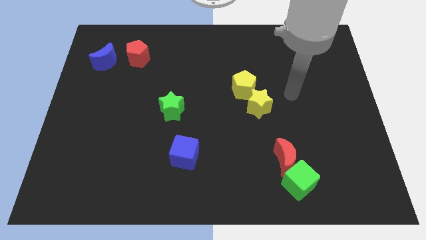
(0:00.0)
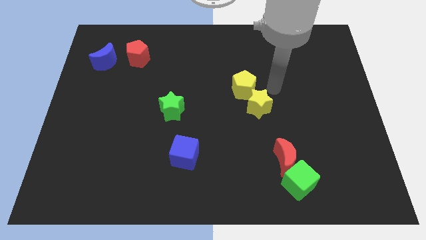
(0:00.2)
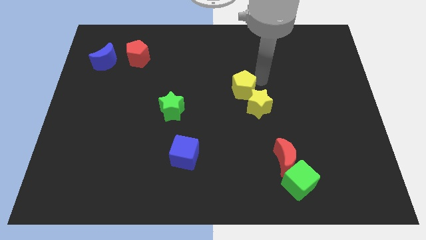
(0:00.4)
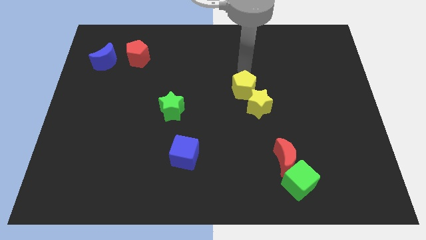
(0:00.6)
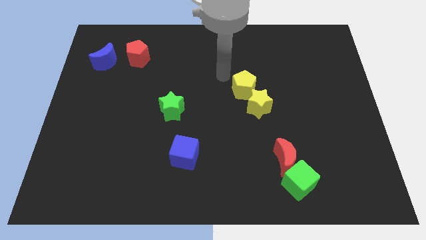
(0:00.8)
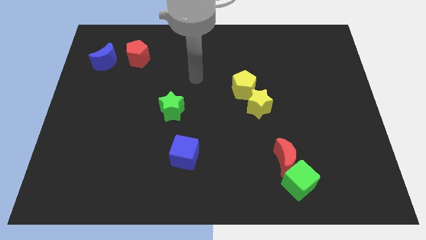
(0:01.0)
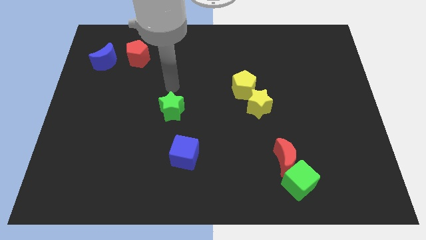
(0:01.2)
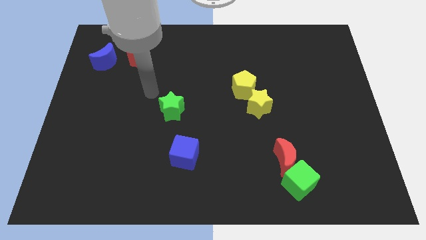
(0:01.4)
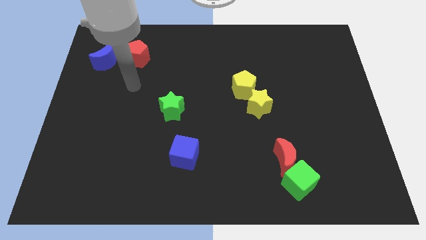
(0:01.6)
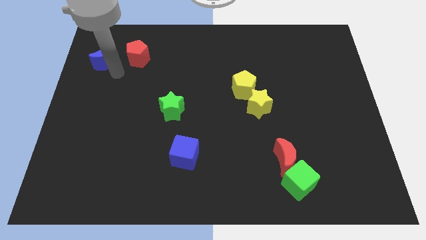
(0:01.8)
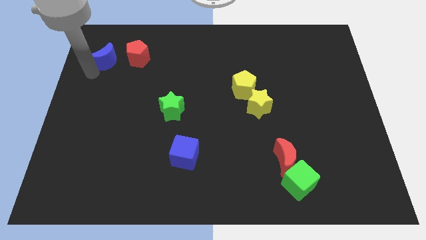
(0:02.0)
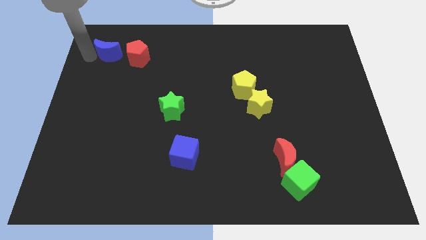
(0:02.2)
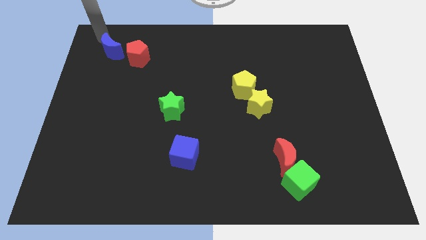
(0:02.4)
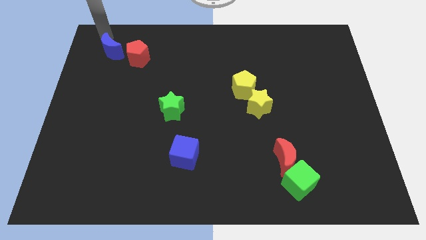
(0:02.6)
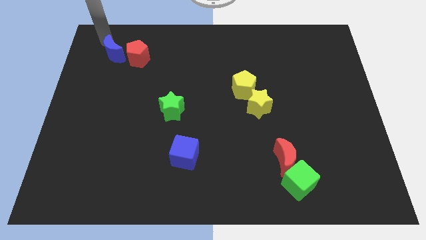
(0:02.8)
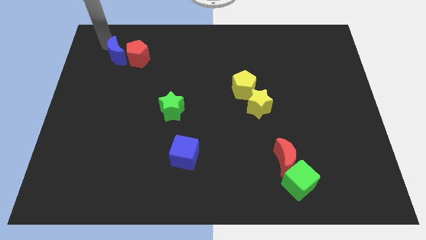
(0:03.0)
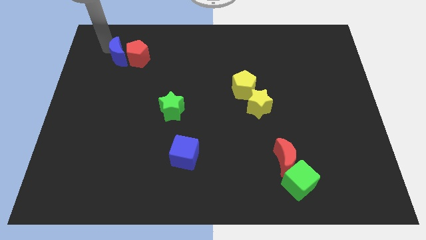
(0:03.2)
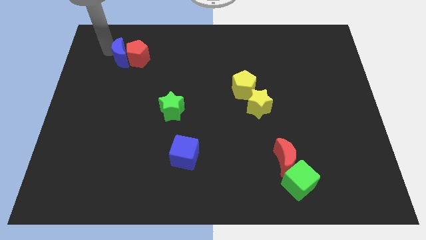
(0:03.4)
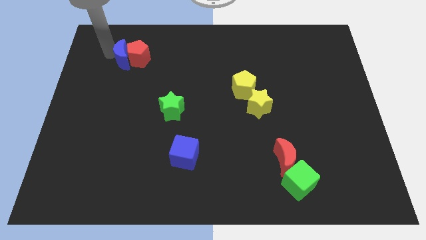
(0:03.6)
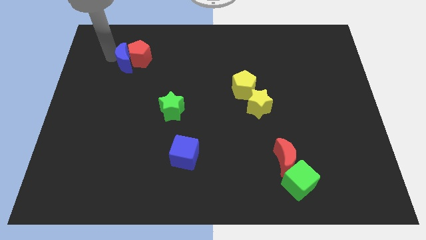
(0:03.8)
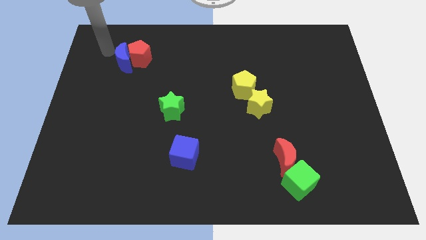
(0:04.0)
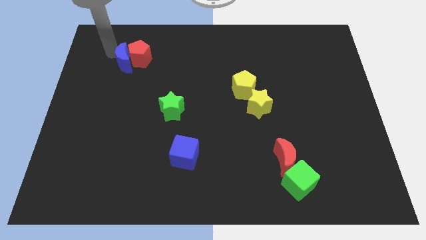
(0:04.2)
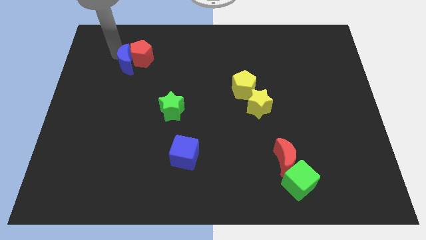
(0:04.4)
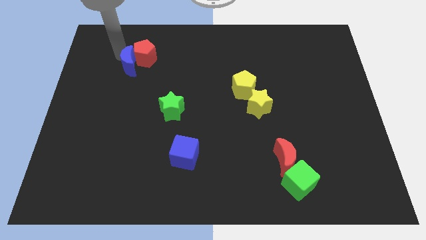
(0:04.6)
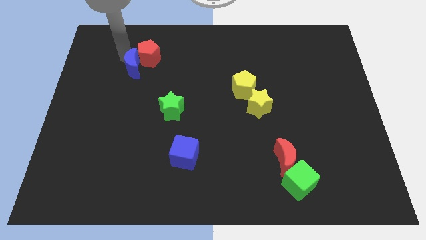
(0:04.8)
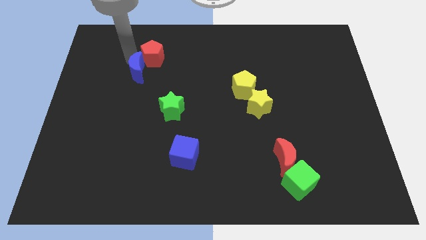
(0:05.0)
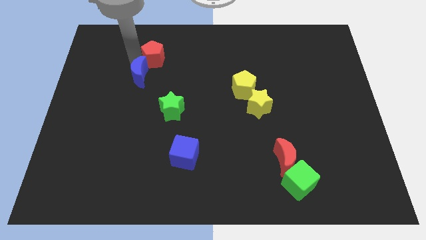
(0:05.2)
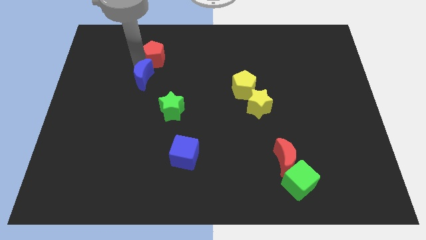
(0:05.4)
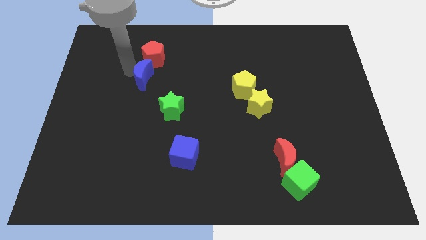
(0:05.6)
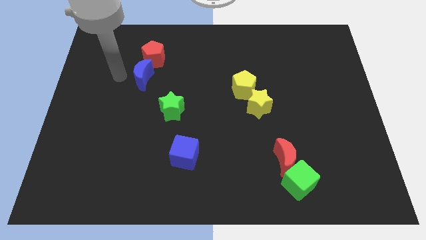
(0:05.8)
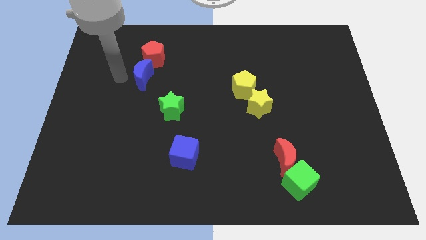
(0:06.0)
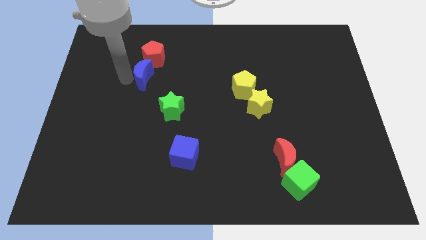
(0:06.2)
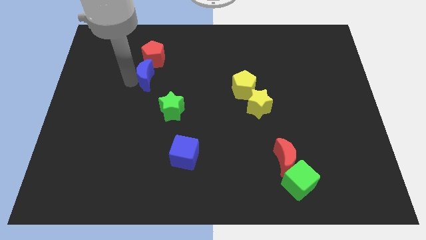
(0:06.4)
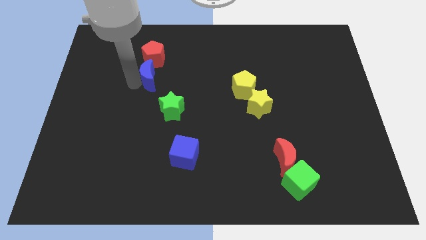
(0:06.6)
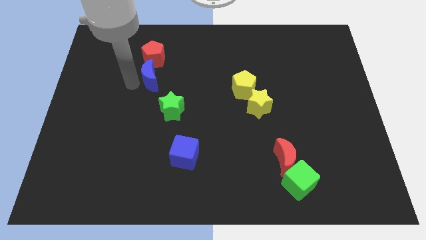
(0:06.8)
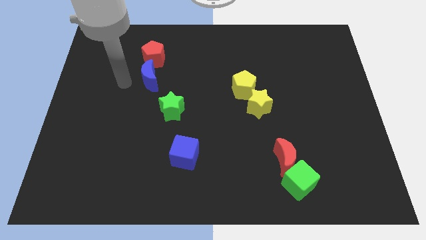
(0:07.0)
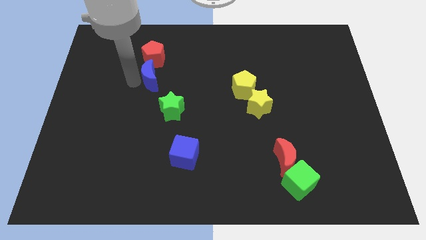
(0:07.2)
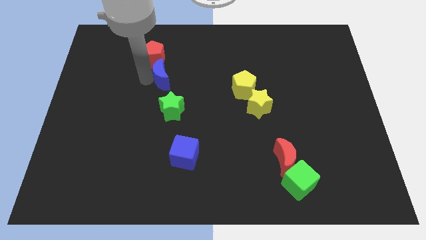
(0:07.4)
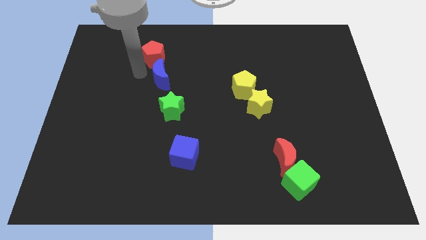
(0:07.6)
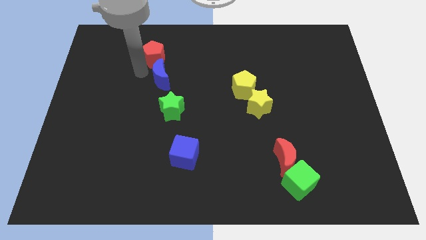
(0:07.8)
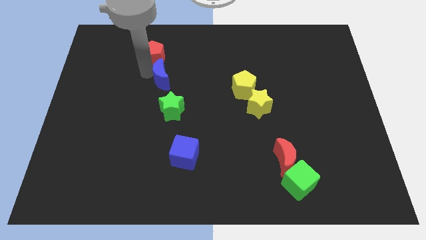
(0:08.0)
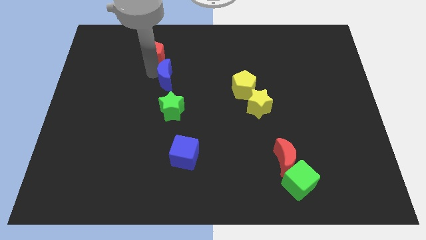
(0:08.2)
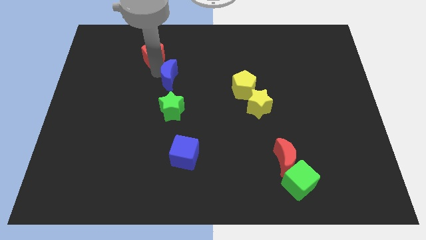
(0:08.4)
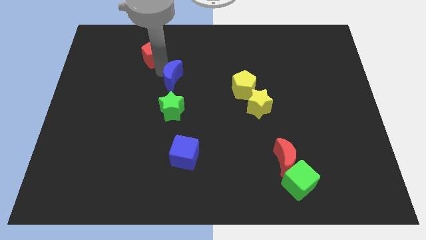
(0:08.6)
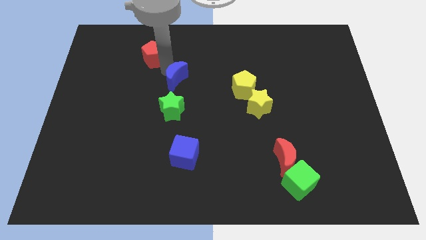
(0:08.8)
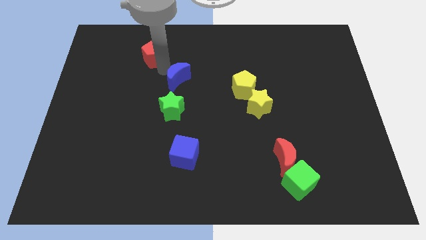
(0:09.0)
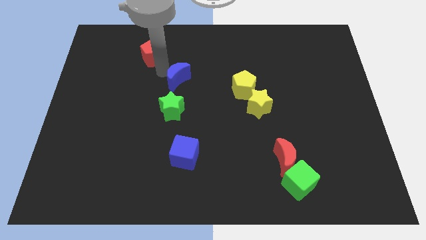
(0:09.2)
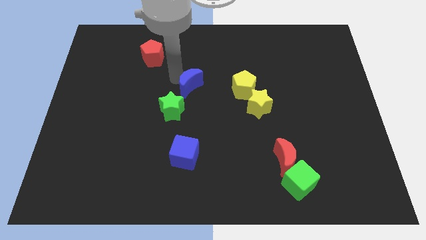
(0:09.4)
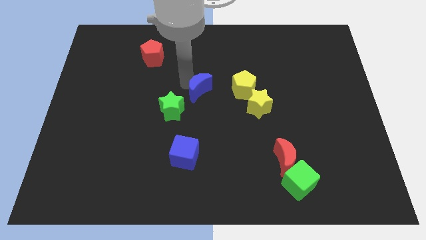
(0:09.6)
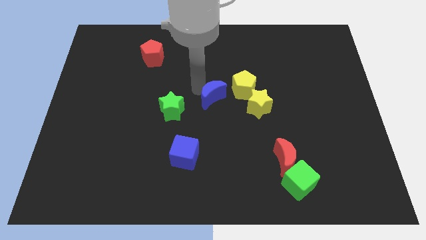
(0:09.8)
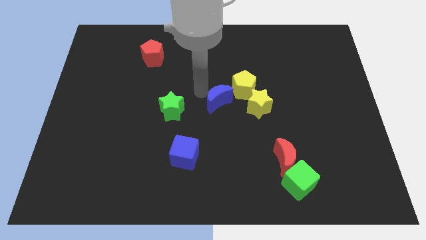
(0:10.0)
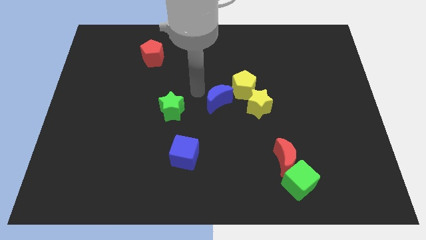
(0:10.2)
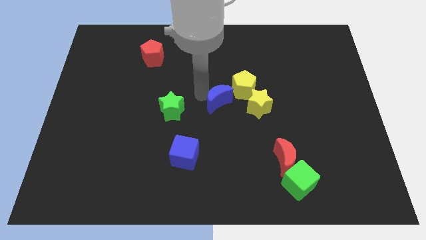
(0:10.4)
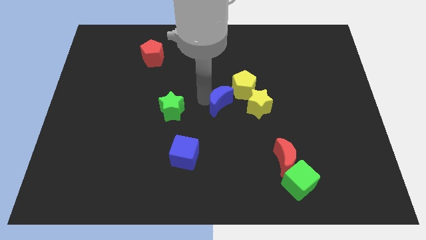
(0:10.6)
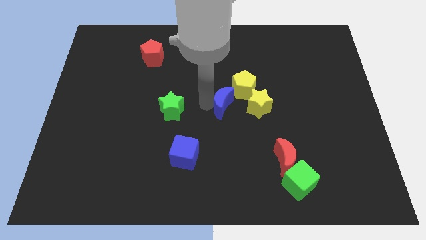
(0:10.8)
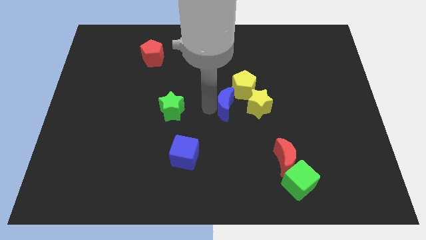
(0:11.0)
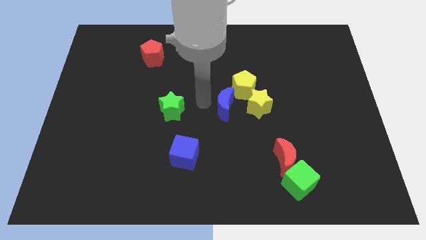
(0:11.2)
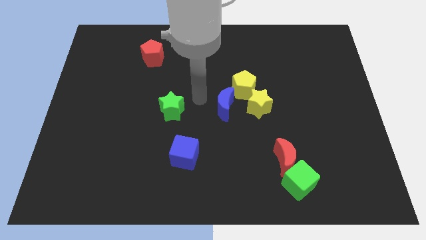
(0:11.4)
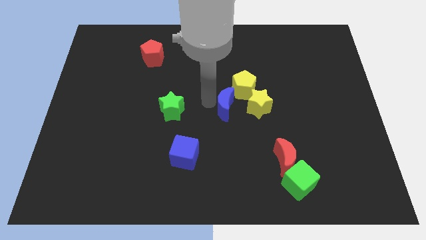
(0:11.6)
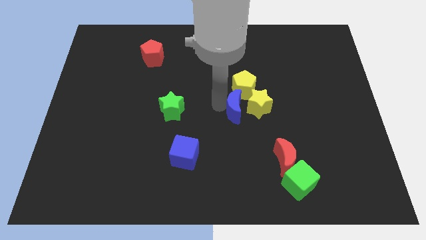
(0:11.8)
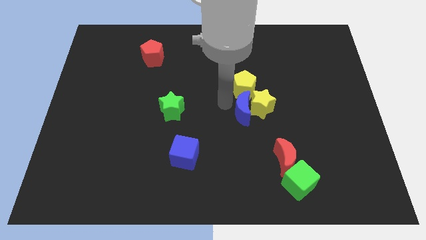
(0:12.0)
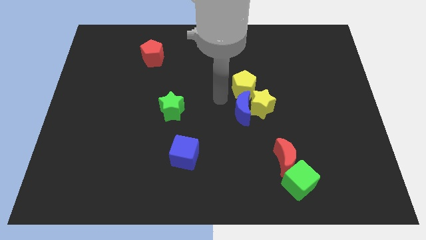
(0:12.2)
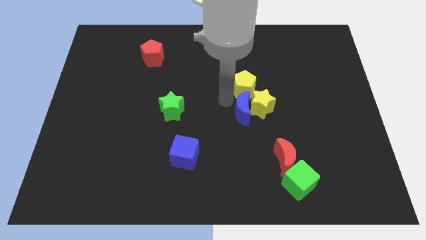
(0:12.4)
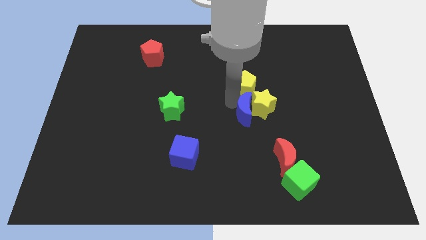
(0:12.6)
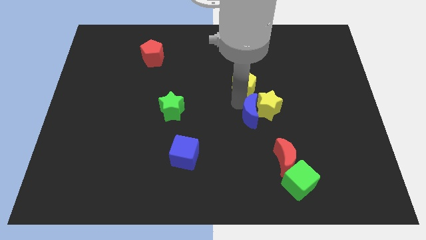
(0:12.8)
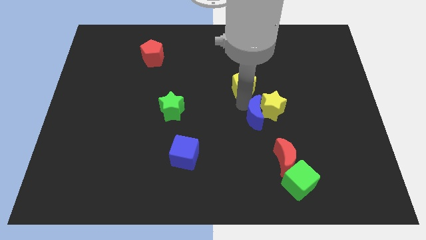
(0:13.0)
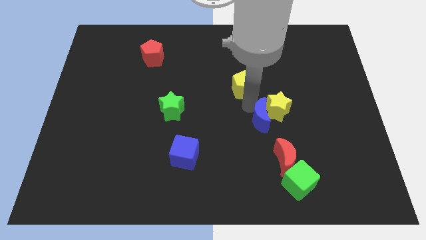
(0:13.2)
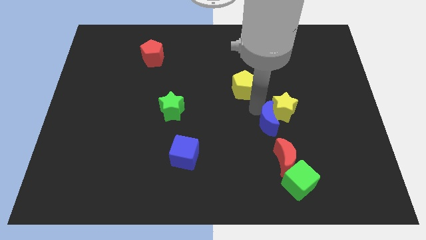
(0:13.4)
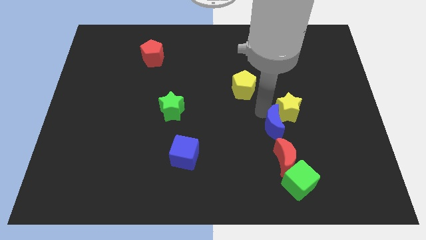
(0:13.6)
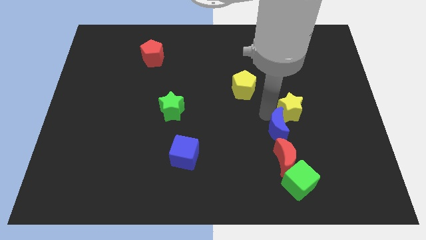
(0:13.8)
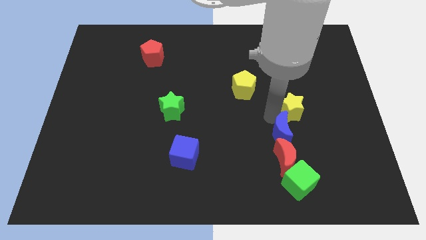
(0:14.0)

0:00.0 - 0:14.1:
put the blue moon to the top right of the red moon
